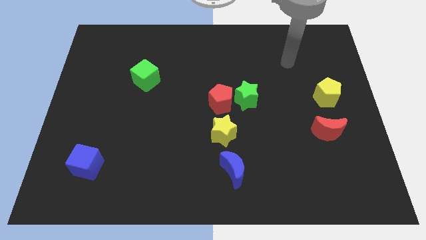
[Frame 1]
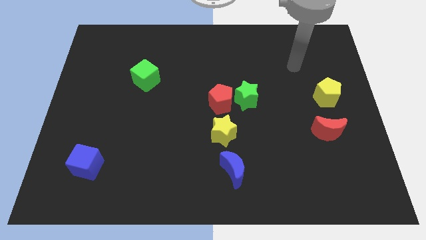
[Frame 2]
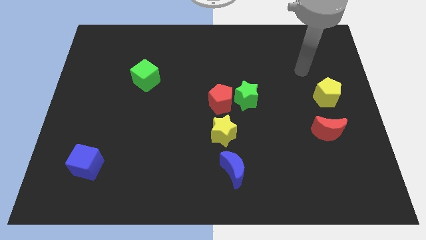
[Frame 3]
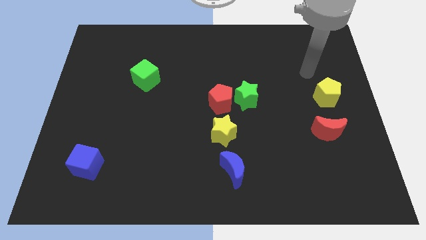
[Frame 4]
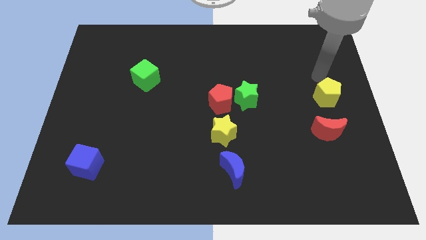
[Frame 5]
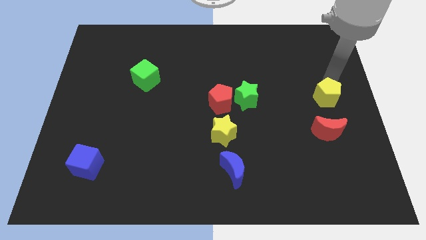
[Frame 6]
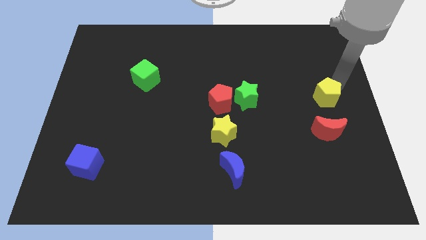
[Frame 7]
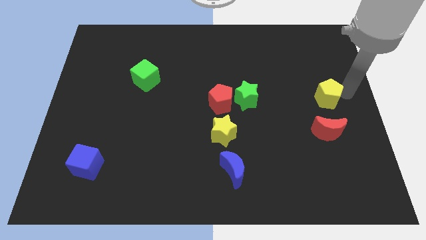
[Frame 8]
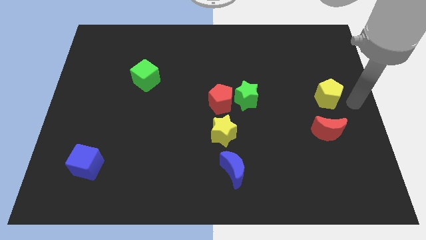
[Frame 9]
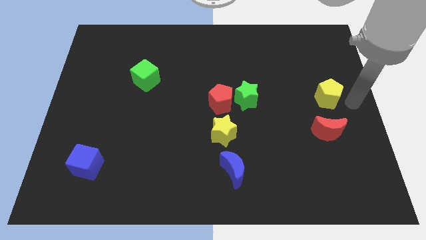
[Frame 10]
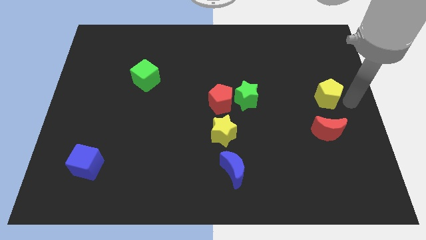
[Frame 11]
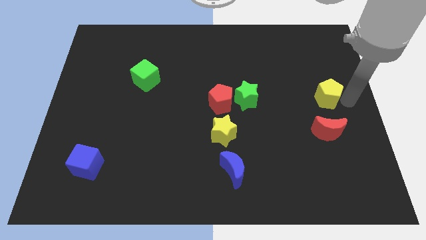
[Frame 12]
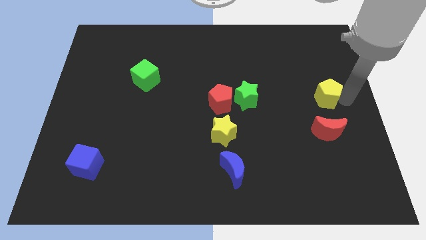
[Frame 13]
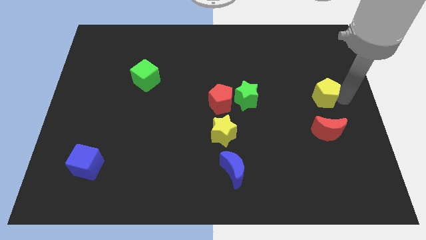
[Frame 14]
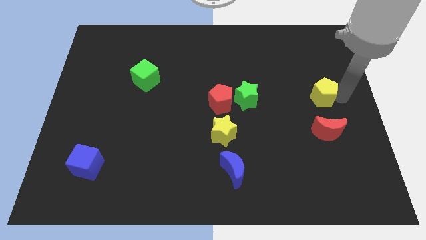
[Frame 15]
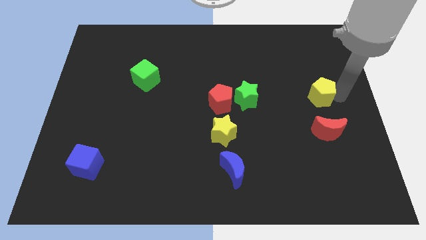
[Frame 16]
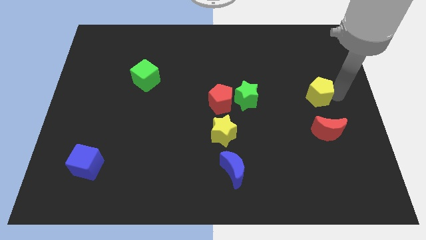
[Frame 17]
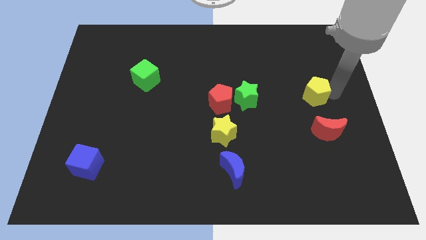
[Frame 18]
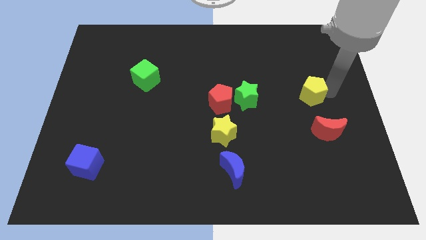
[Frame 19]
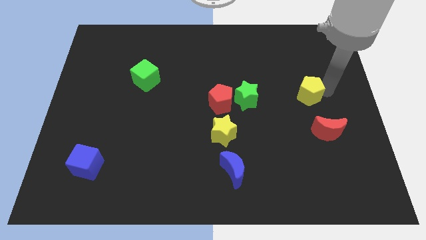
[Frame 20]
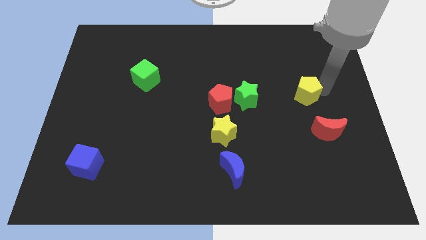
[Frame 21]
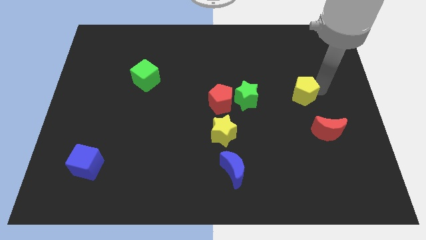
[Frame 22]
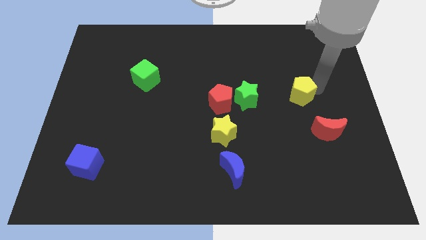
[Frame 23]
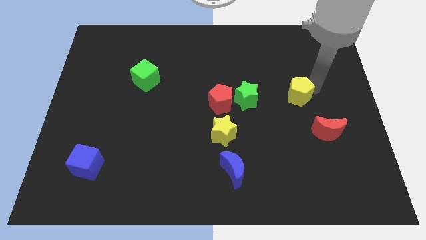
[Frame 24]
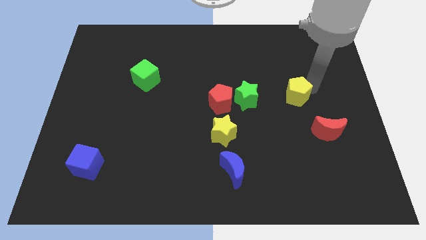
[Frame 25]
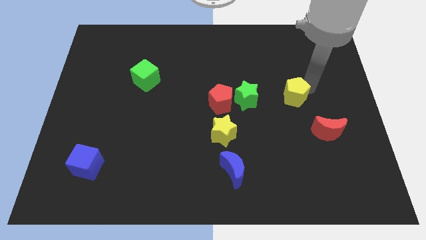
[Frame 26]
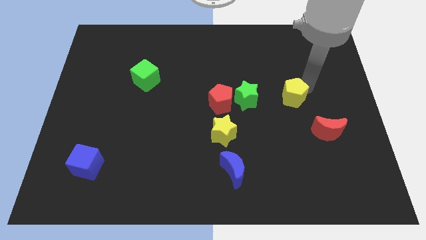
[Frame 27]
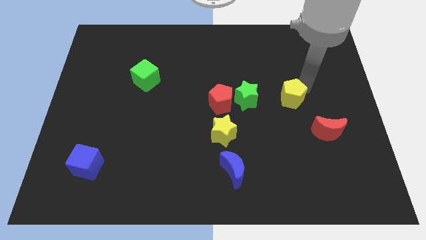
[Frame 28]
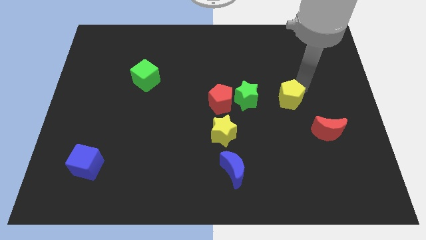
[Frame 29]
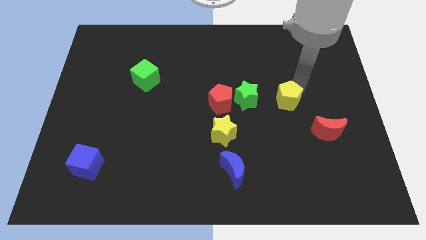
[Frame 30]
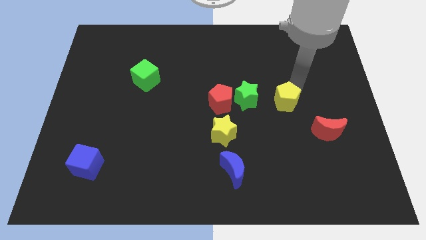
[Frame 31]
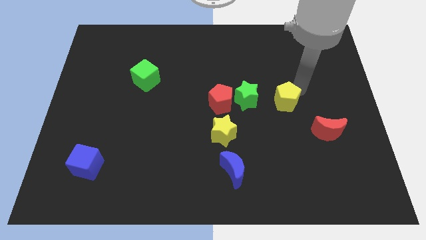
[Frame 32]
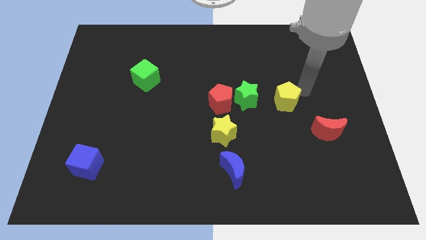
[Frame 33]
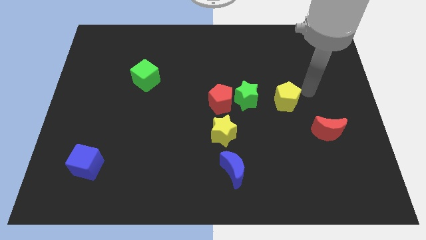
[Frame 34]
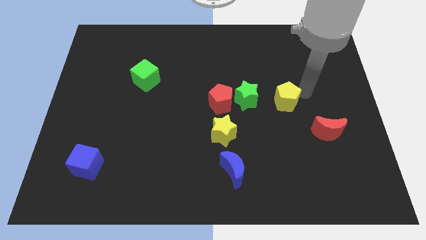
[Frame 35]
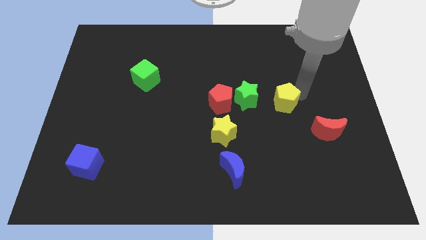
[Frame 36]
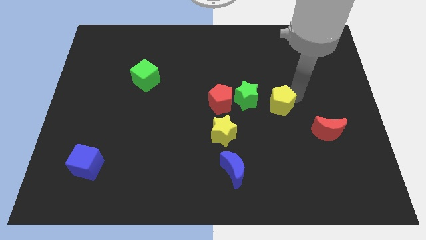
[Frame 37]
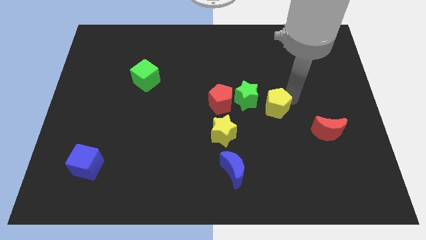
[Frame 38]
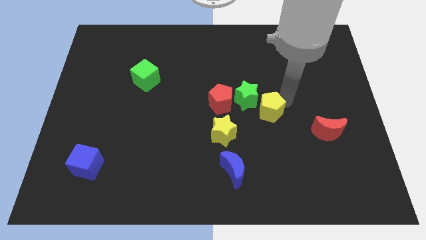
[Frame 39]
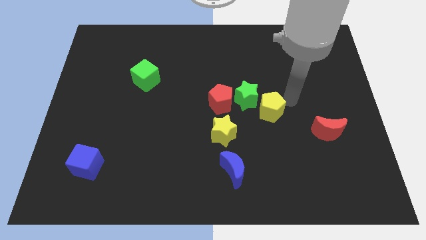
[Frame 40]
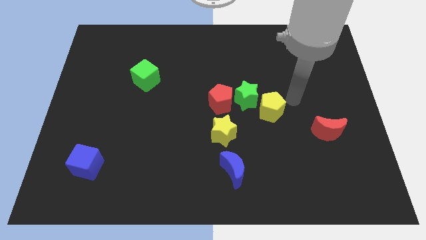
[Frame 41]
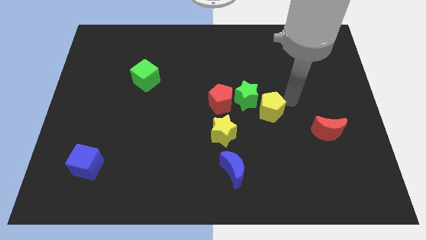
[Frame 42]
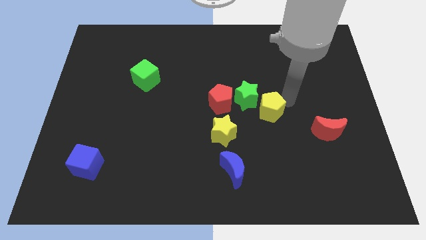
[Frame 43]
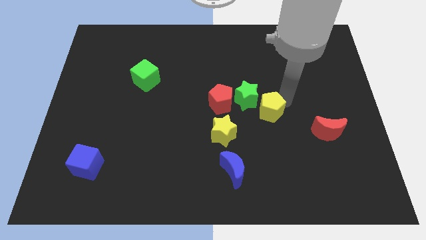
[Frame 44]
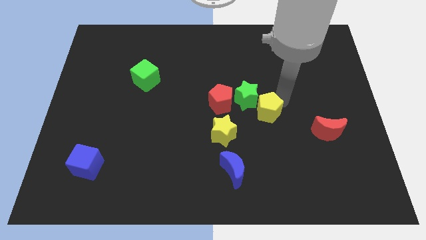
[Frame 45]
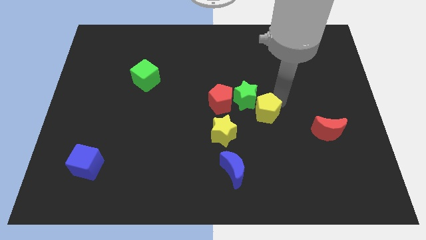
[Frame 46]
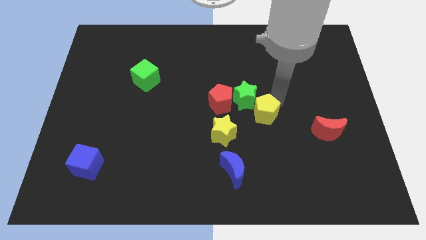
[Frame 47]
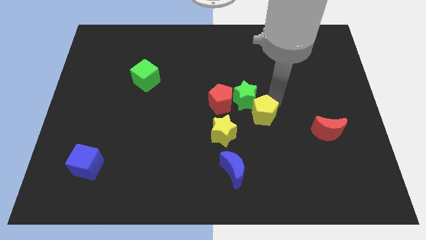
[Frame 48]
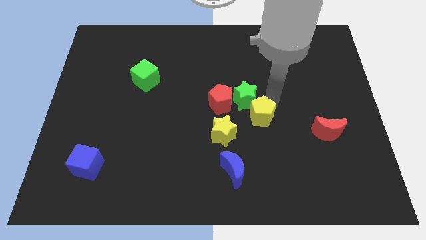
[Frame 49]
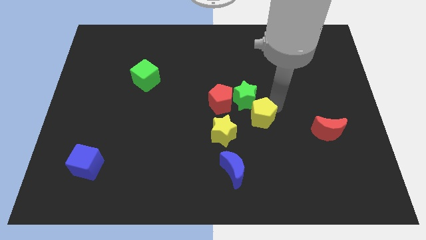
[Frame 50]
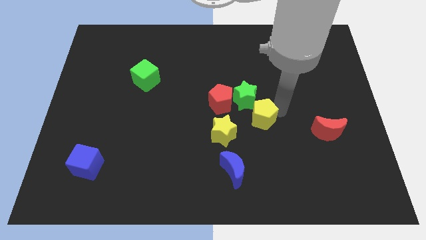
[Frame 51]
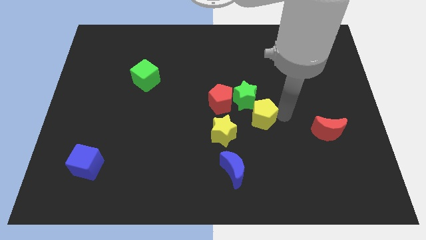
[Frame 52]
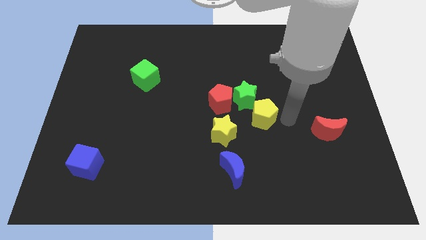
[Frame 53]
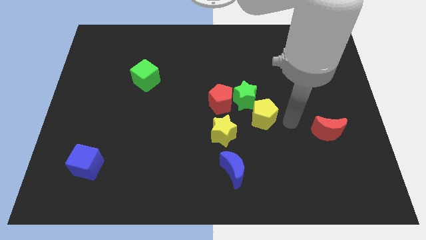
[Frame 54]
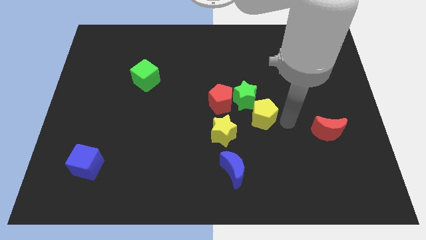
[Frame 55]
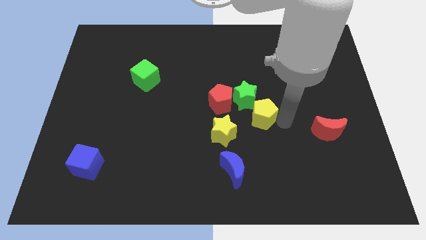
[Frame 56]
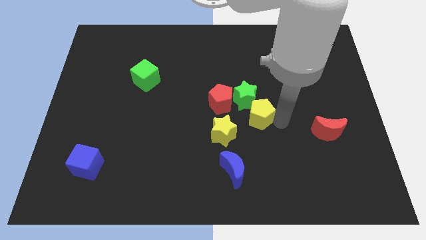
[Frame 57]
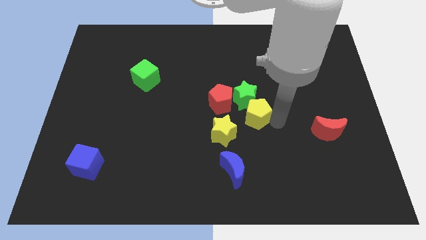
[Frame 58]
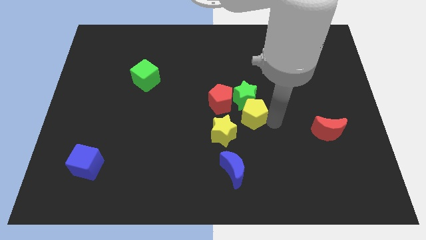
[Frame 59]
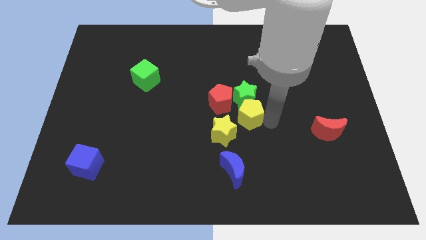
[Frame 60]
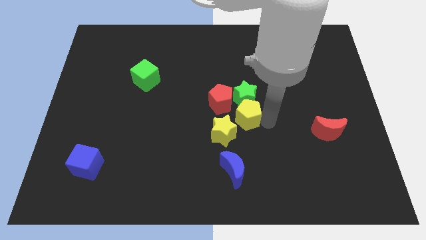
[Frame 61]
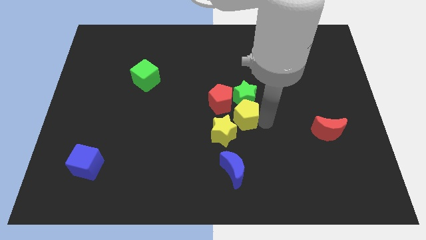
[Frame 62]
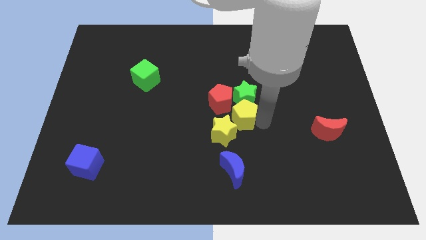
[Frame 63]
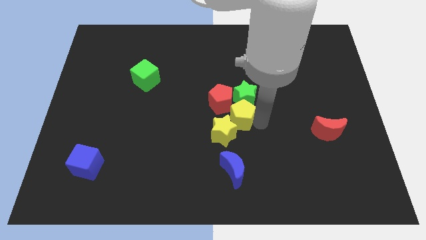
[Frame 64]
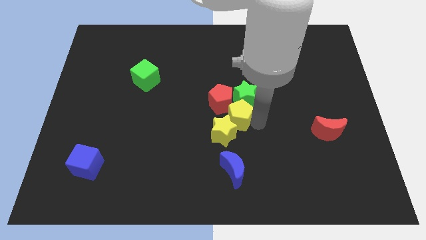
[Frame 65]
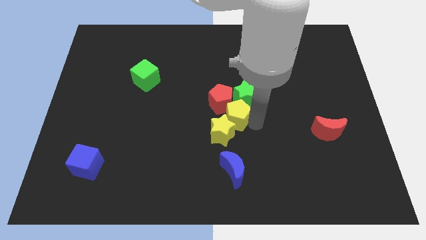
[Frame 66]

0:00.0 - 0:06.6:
push the yellow pentagon towards the red pentagon
